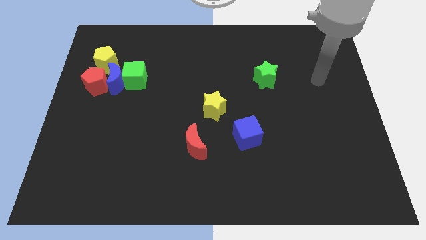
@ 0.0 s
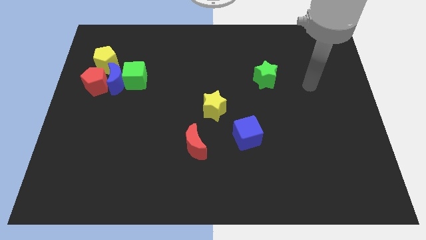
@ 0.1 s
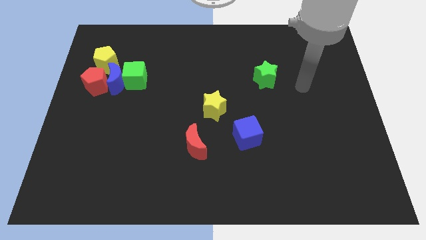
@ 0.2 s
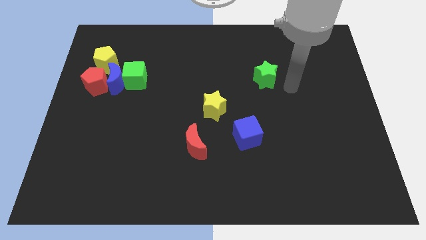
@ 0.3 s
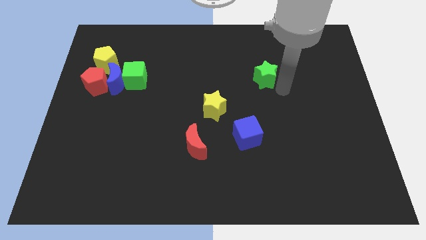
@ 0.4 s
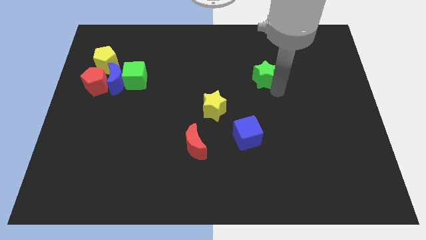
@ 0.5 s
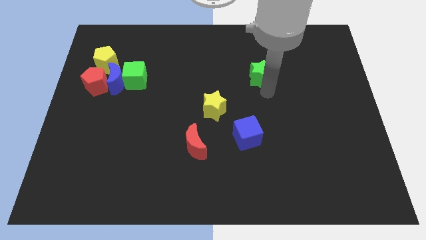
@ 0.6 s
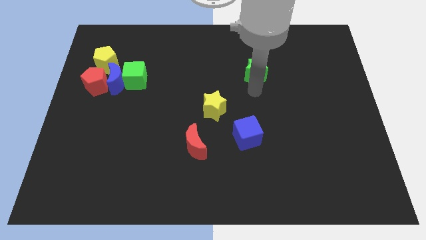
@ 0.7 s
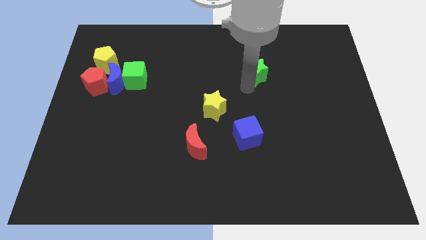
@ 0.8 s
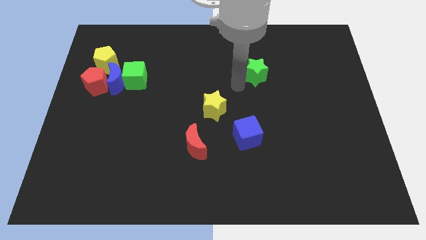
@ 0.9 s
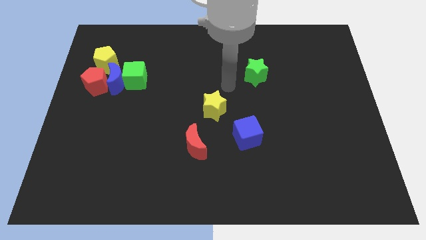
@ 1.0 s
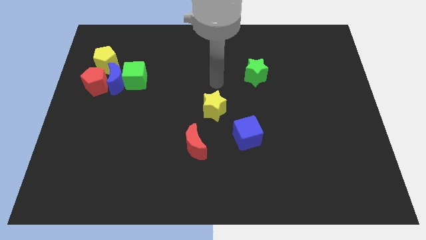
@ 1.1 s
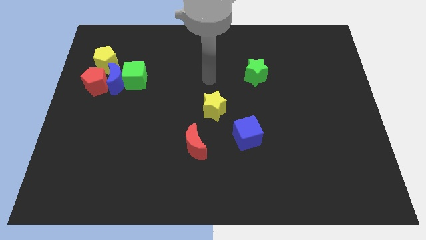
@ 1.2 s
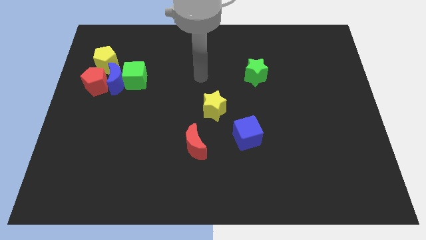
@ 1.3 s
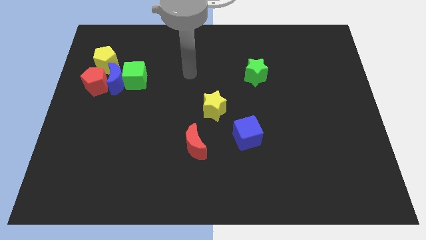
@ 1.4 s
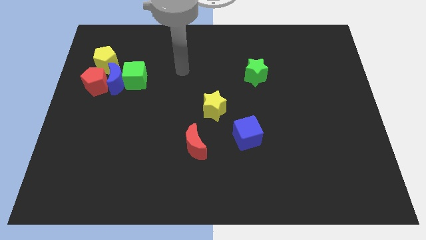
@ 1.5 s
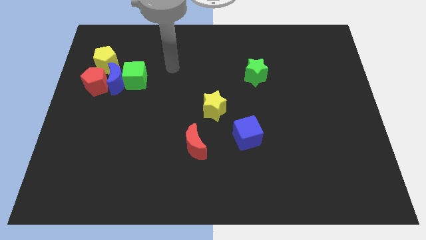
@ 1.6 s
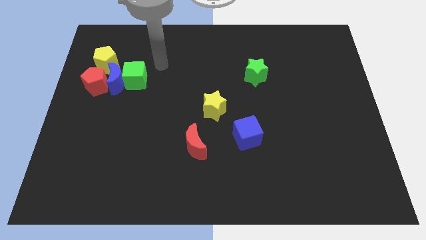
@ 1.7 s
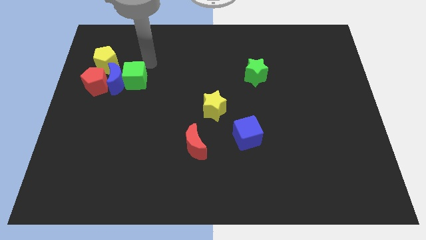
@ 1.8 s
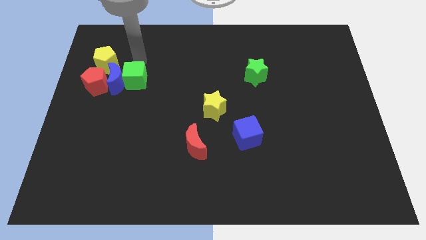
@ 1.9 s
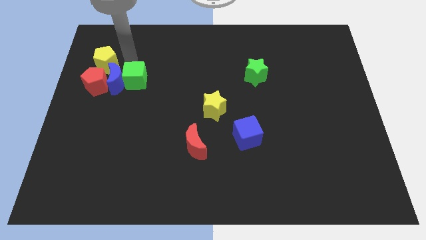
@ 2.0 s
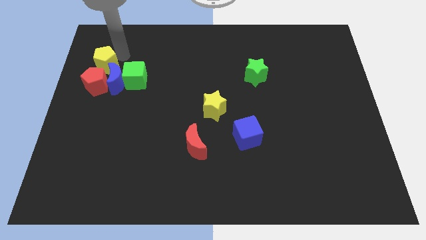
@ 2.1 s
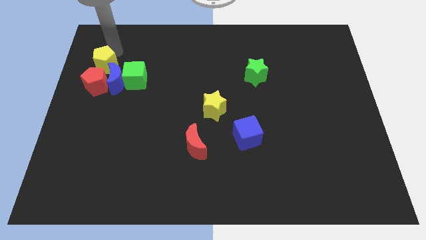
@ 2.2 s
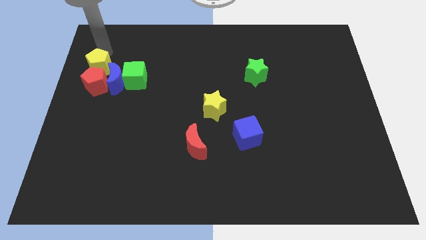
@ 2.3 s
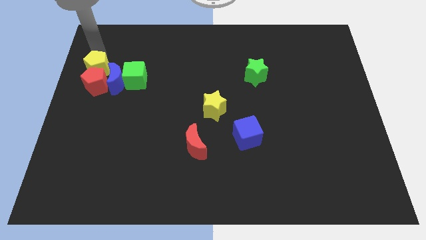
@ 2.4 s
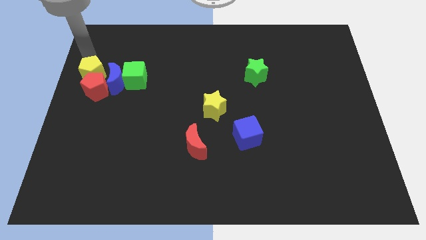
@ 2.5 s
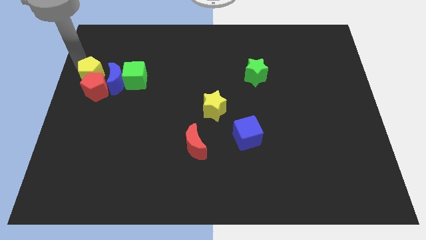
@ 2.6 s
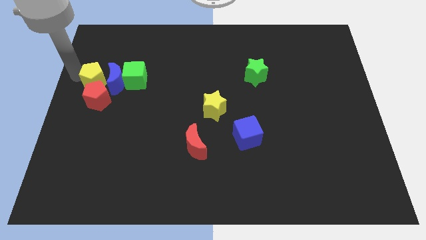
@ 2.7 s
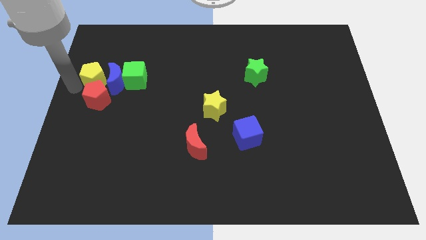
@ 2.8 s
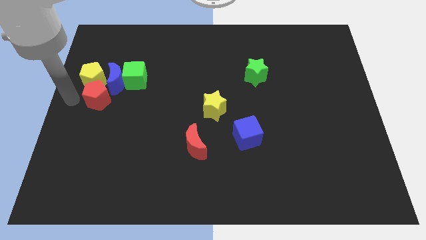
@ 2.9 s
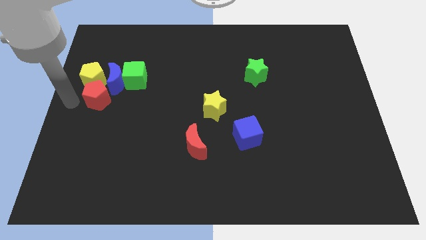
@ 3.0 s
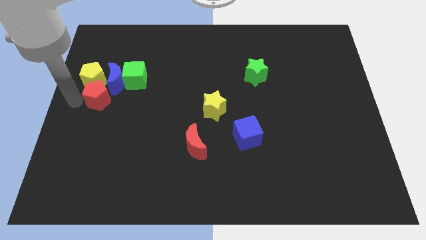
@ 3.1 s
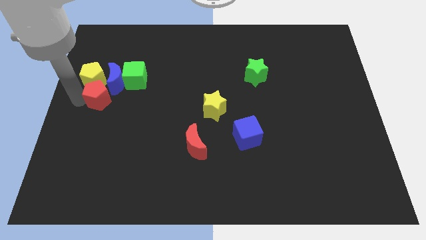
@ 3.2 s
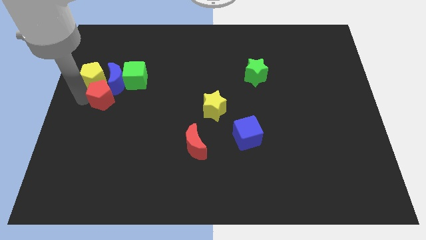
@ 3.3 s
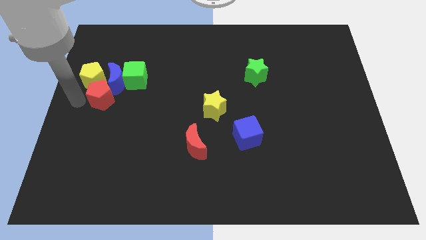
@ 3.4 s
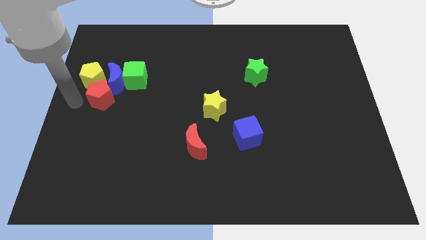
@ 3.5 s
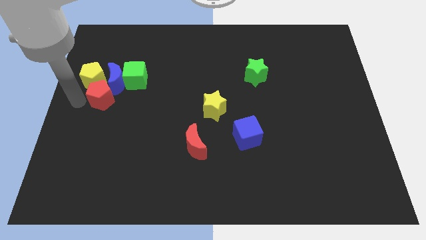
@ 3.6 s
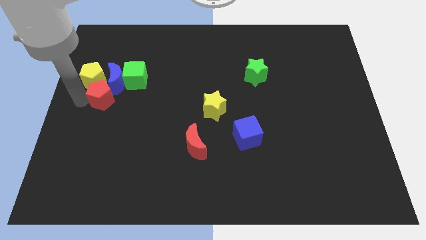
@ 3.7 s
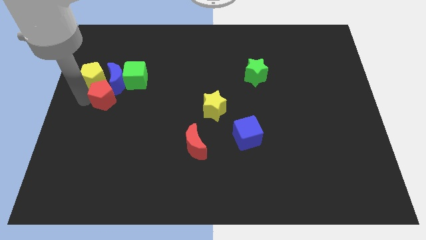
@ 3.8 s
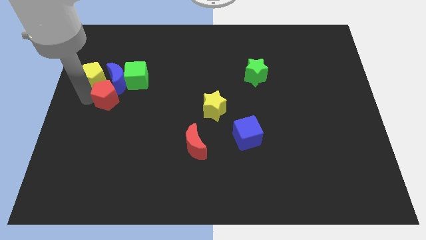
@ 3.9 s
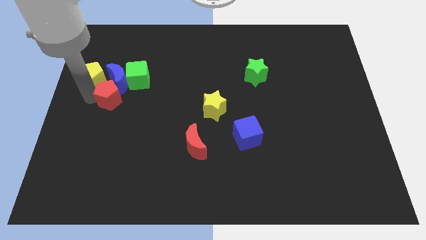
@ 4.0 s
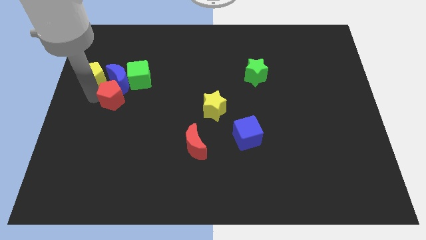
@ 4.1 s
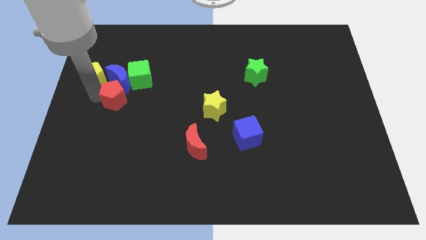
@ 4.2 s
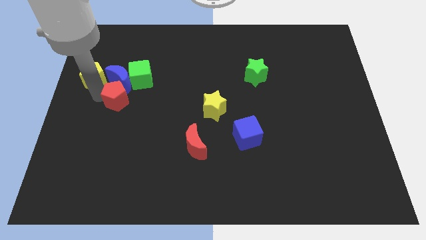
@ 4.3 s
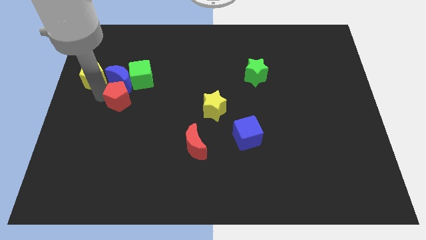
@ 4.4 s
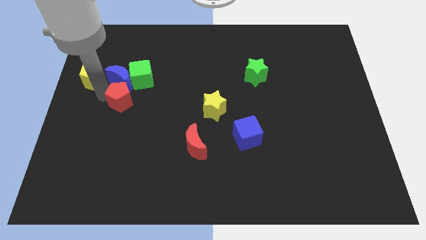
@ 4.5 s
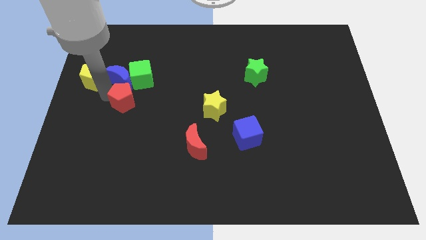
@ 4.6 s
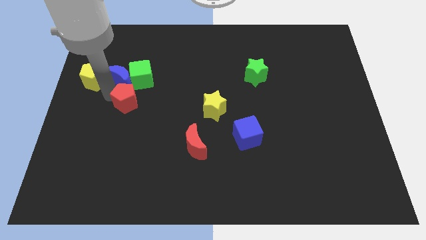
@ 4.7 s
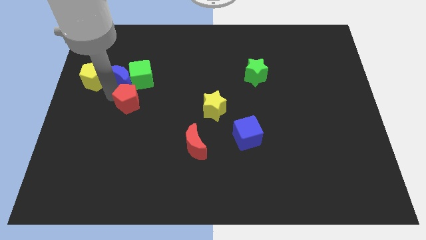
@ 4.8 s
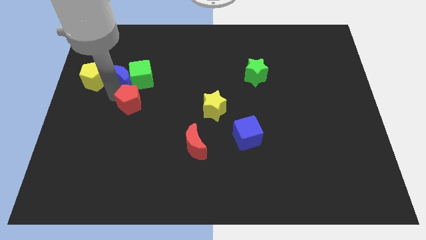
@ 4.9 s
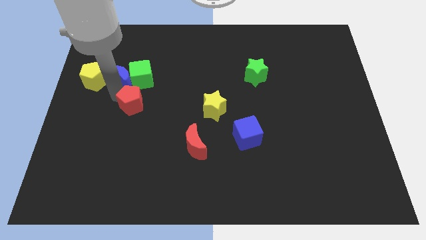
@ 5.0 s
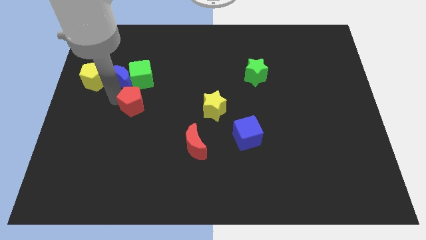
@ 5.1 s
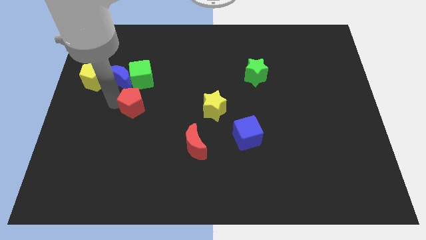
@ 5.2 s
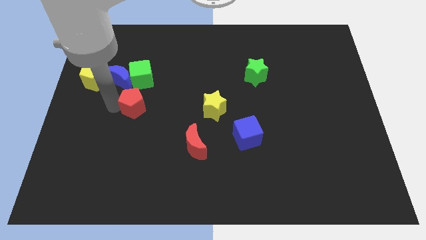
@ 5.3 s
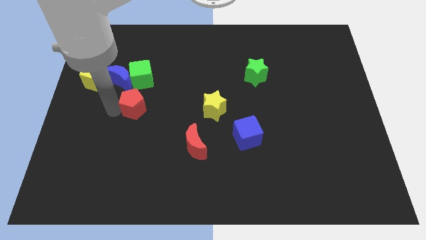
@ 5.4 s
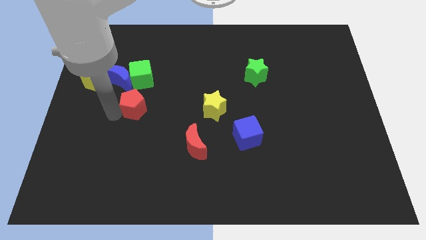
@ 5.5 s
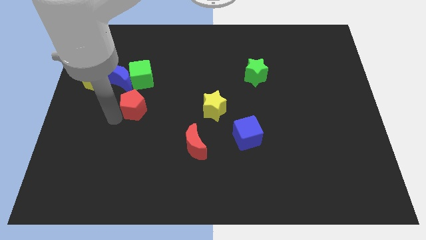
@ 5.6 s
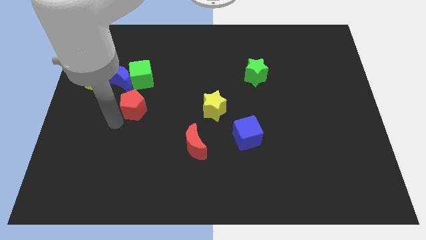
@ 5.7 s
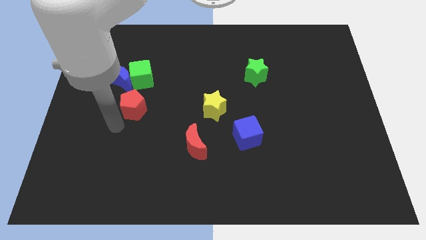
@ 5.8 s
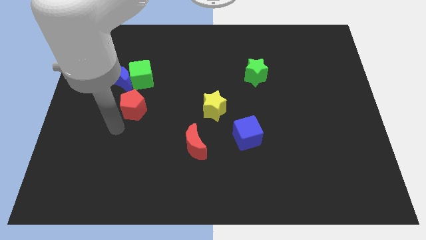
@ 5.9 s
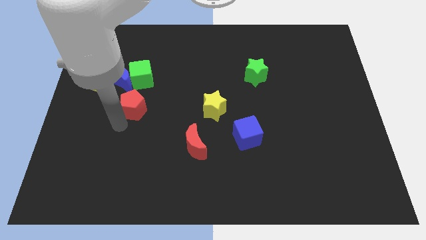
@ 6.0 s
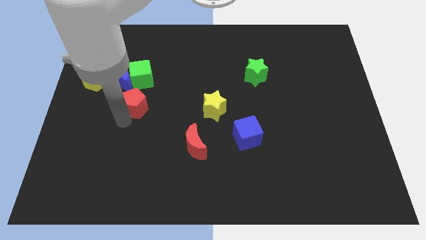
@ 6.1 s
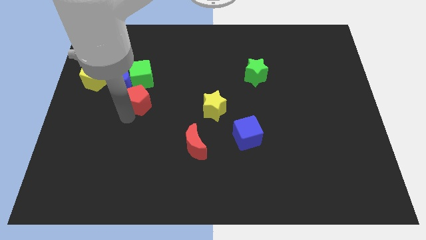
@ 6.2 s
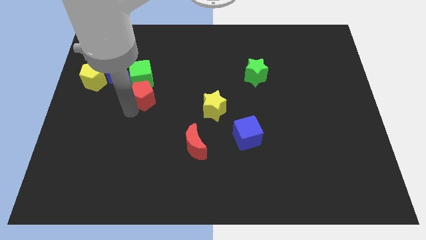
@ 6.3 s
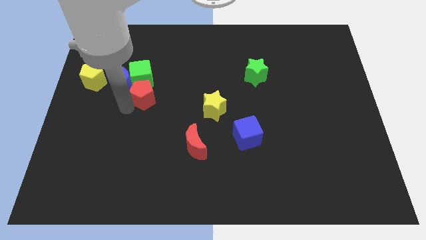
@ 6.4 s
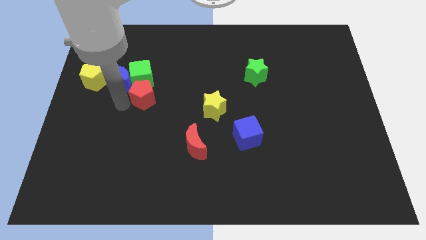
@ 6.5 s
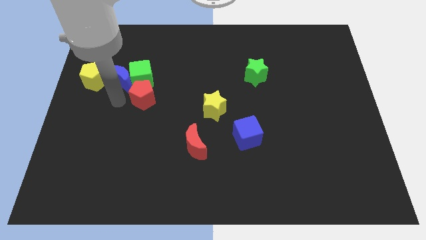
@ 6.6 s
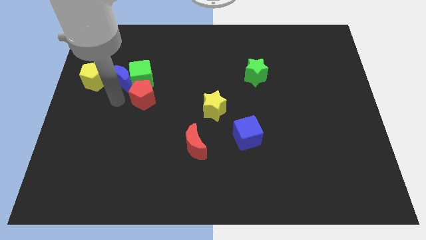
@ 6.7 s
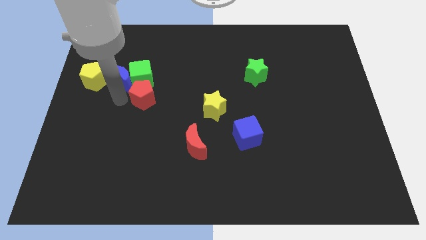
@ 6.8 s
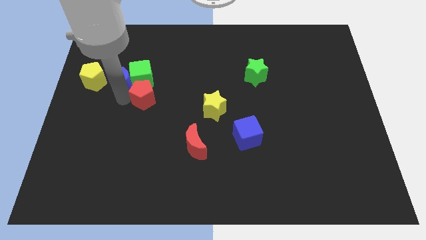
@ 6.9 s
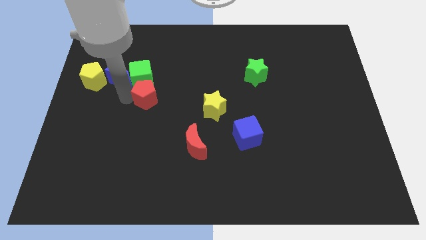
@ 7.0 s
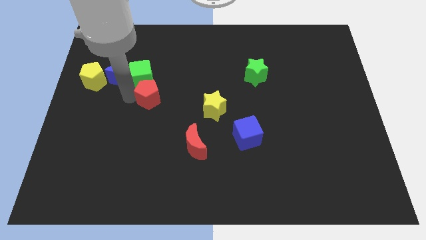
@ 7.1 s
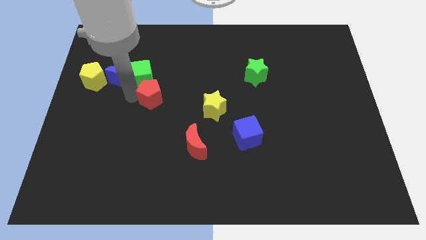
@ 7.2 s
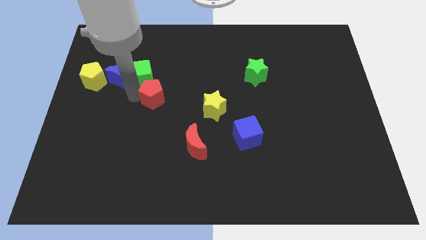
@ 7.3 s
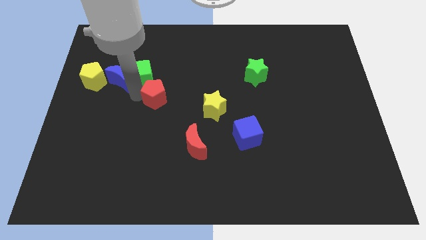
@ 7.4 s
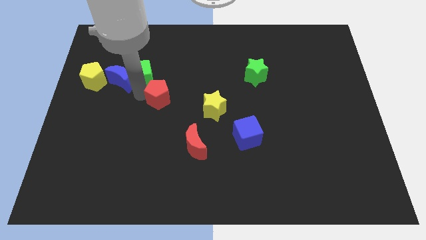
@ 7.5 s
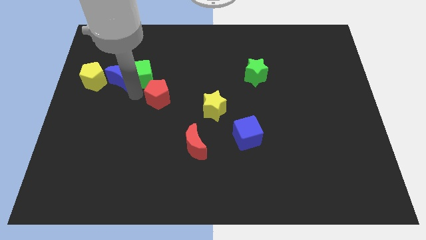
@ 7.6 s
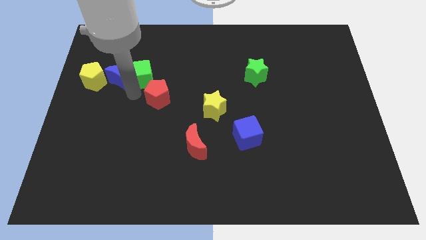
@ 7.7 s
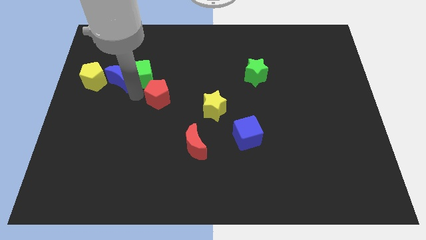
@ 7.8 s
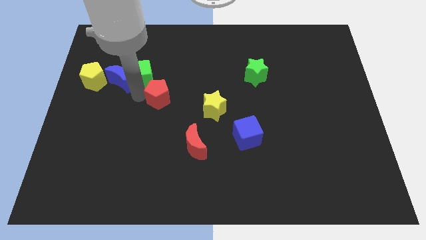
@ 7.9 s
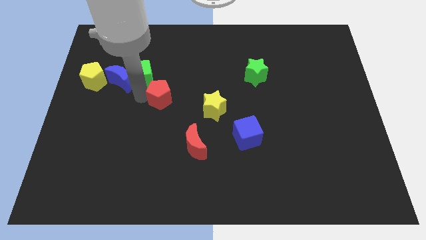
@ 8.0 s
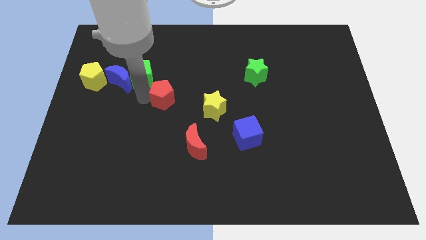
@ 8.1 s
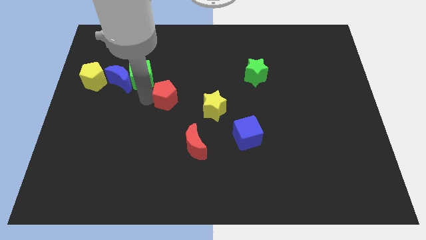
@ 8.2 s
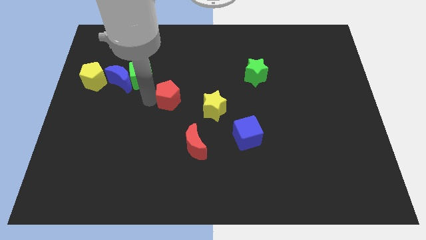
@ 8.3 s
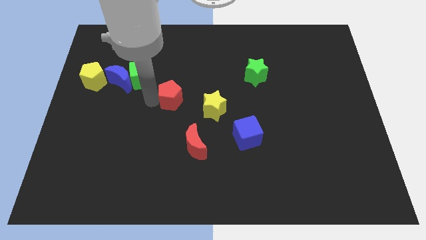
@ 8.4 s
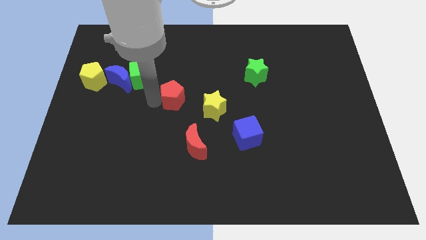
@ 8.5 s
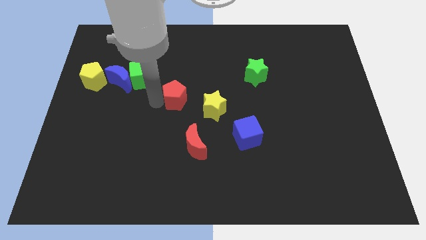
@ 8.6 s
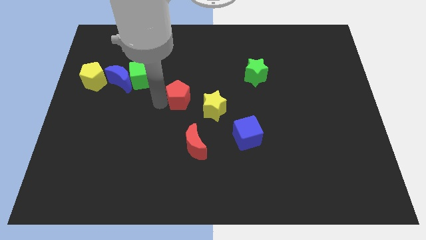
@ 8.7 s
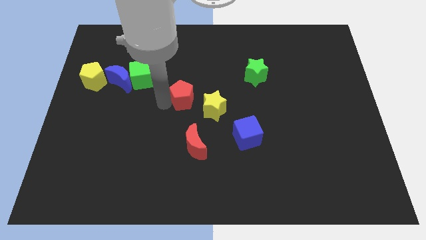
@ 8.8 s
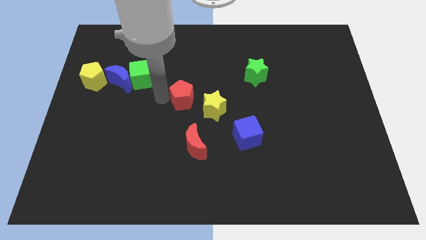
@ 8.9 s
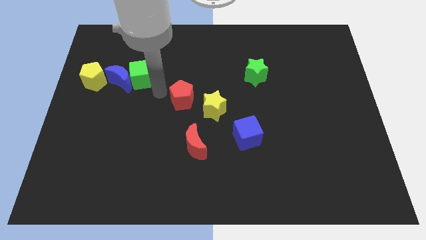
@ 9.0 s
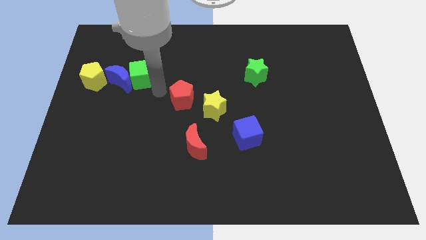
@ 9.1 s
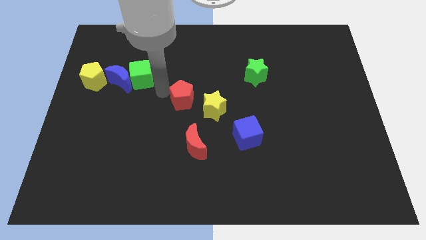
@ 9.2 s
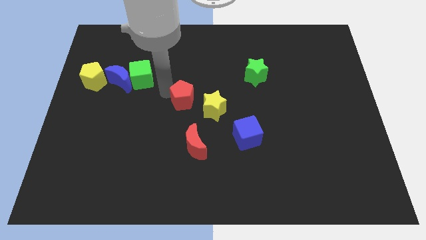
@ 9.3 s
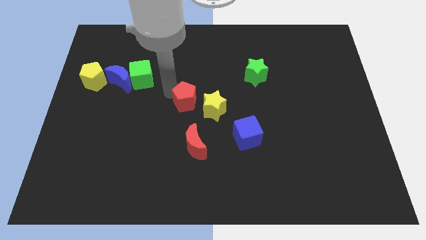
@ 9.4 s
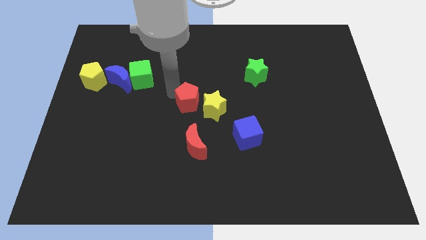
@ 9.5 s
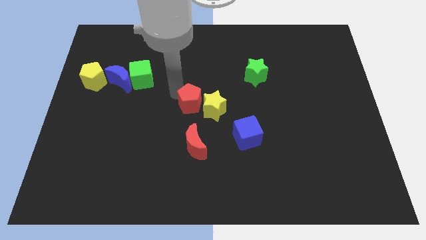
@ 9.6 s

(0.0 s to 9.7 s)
push the red pentagon towards the yellow star
